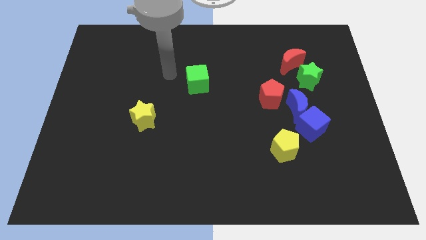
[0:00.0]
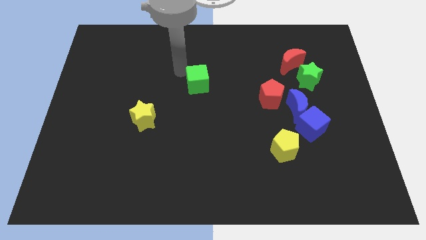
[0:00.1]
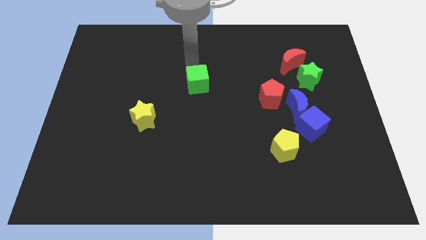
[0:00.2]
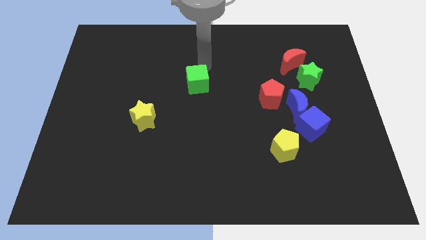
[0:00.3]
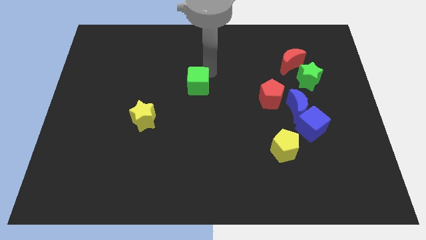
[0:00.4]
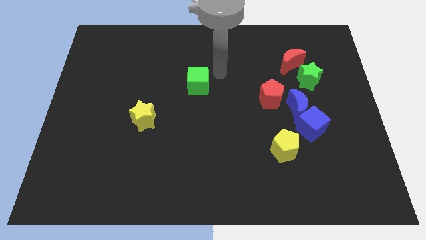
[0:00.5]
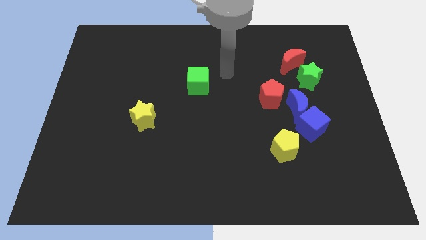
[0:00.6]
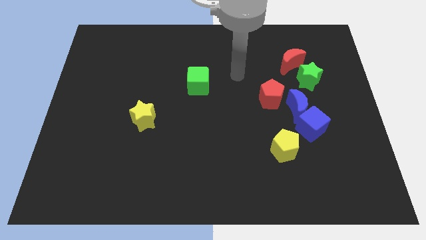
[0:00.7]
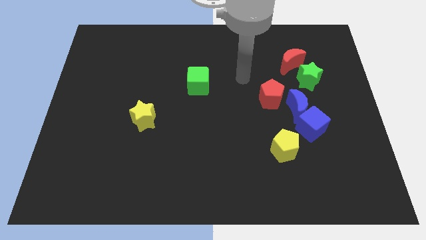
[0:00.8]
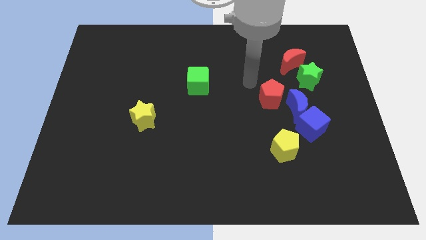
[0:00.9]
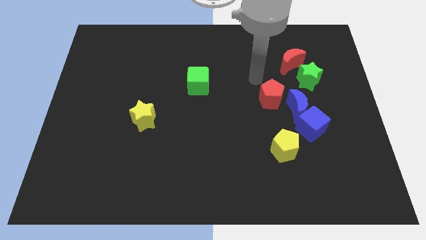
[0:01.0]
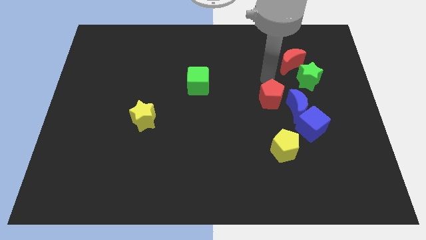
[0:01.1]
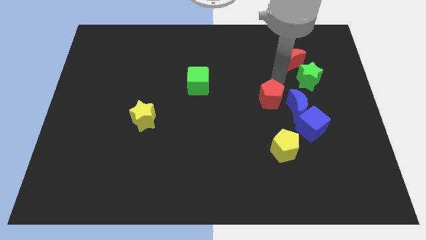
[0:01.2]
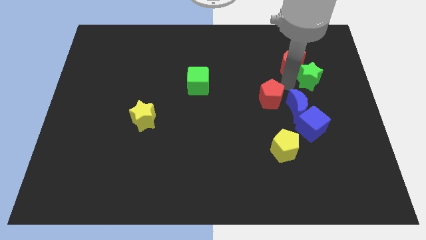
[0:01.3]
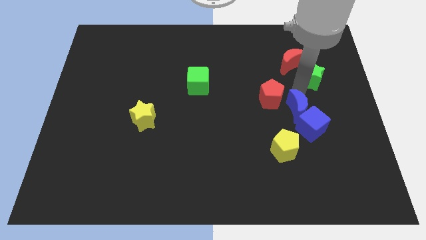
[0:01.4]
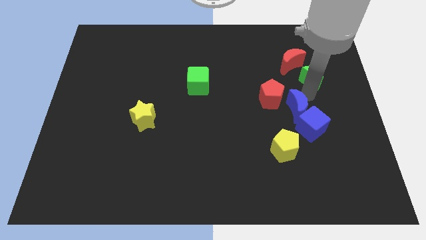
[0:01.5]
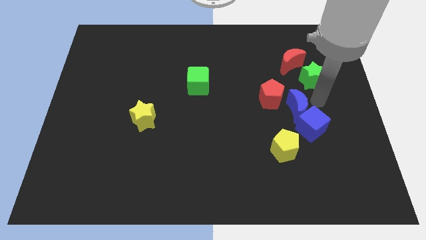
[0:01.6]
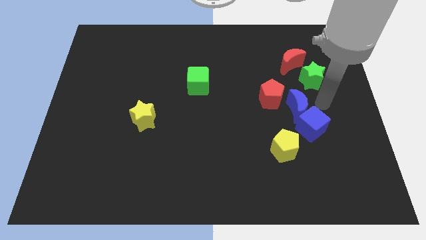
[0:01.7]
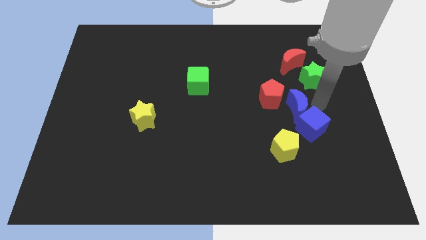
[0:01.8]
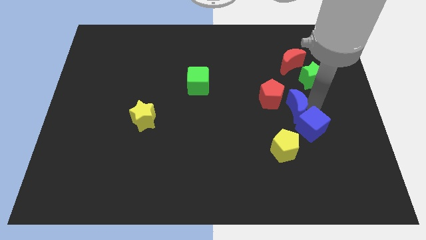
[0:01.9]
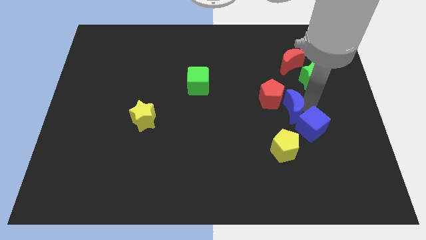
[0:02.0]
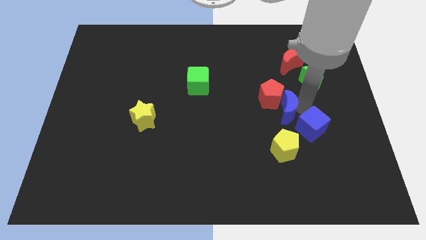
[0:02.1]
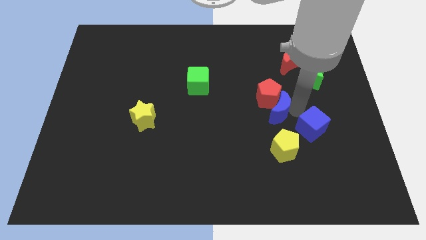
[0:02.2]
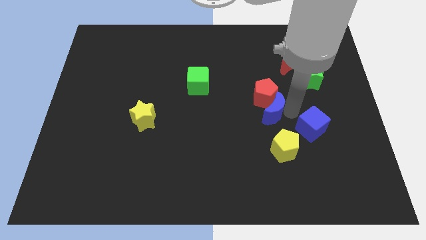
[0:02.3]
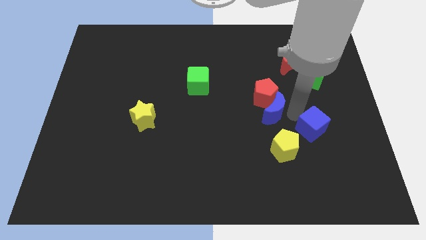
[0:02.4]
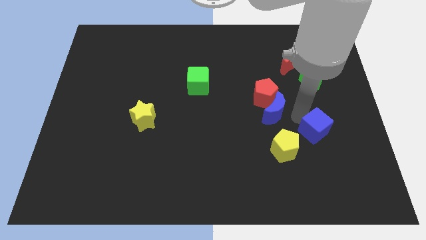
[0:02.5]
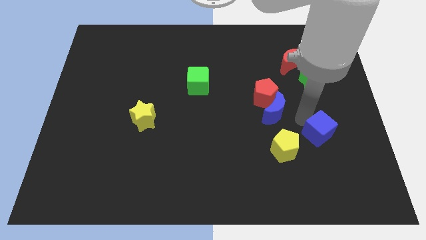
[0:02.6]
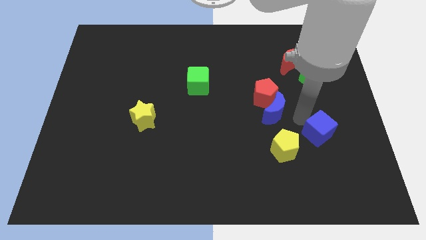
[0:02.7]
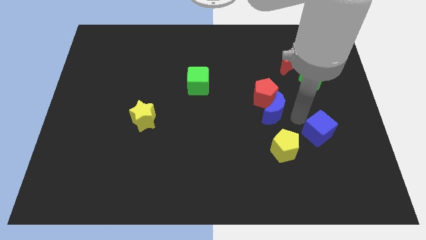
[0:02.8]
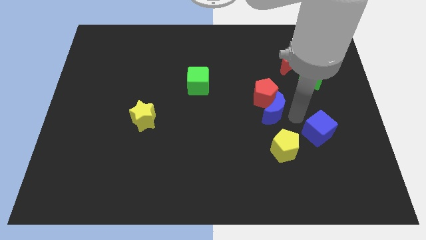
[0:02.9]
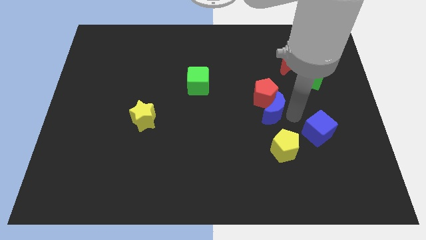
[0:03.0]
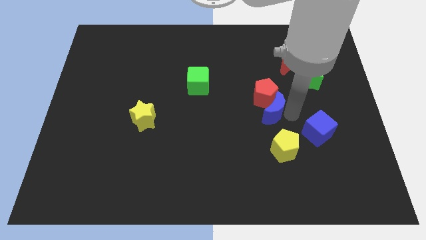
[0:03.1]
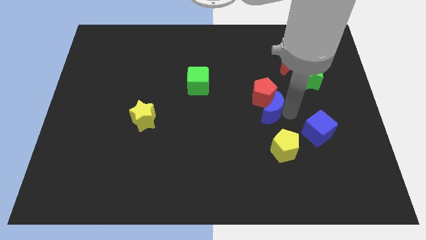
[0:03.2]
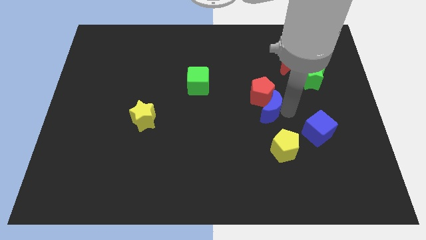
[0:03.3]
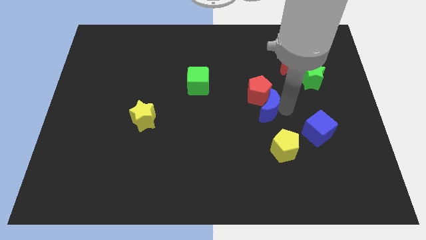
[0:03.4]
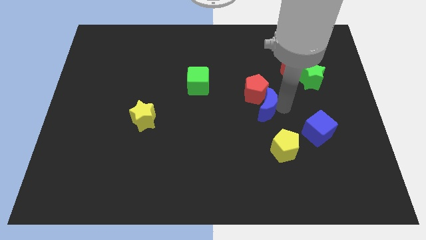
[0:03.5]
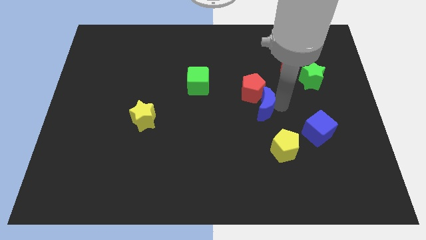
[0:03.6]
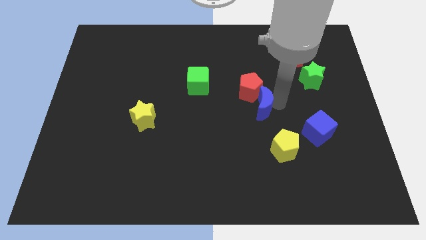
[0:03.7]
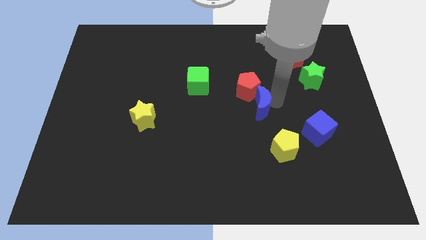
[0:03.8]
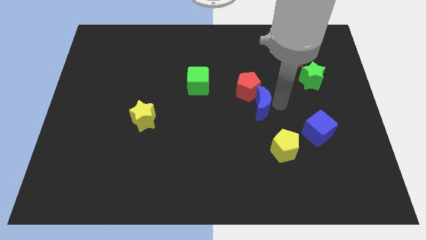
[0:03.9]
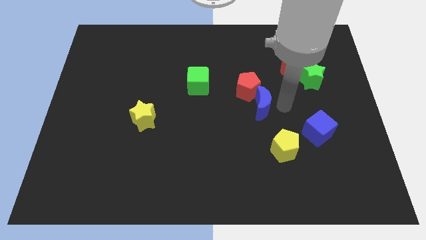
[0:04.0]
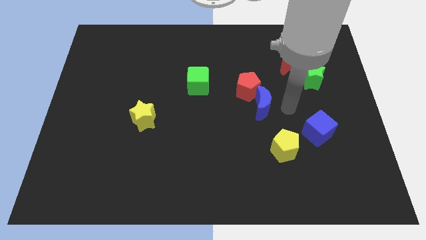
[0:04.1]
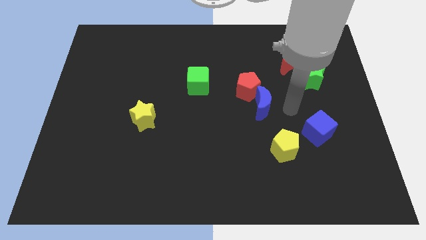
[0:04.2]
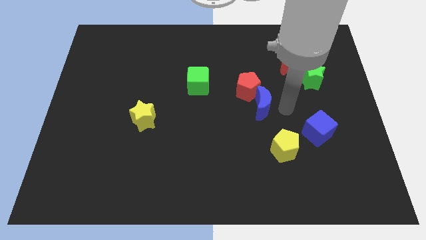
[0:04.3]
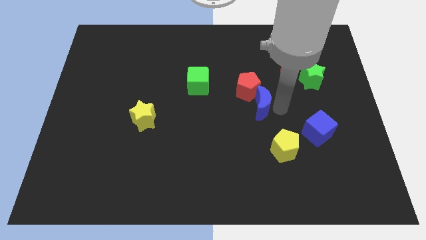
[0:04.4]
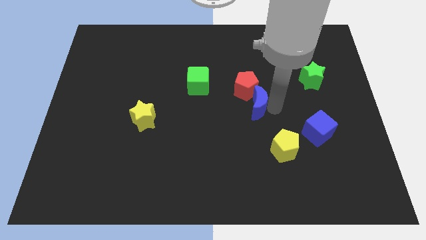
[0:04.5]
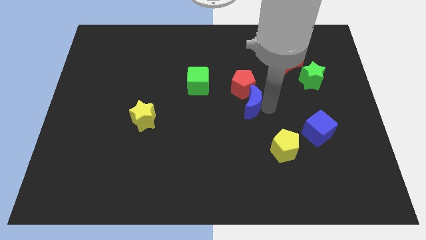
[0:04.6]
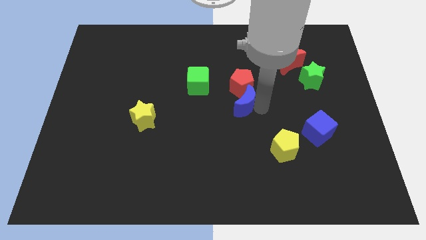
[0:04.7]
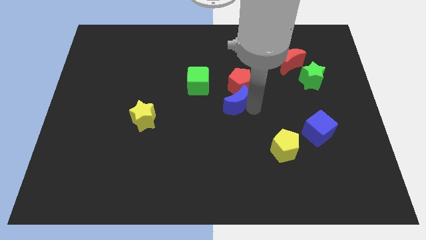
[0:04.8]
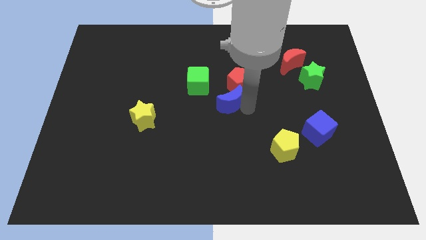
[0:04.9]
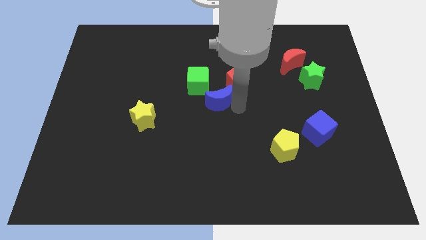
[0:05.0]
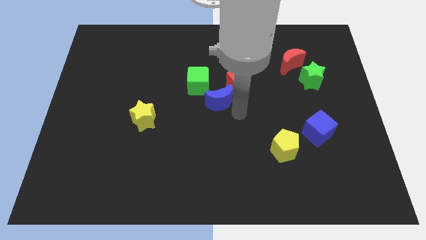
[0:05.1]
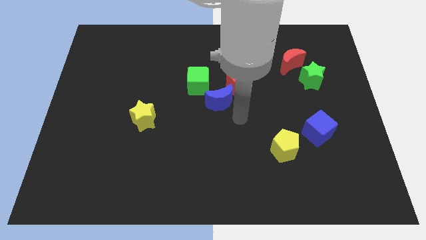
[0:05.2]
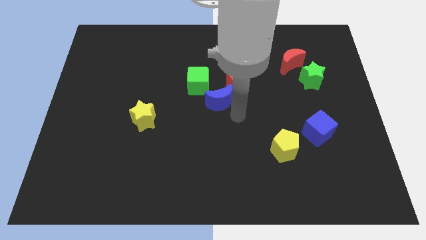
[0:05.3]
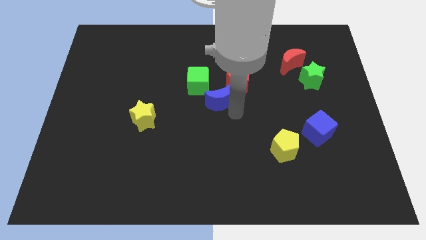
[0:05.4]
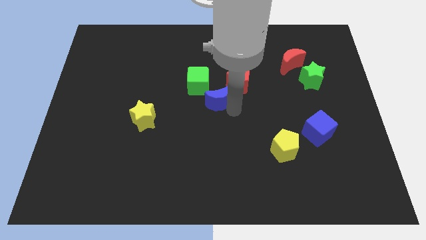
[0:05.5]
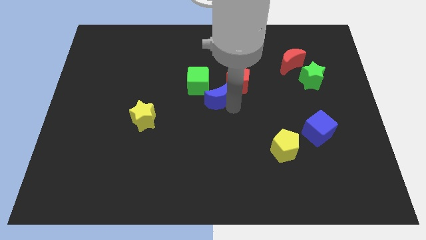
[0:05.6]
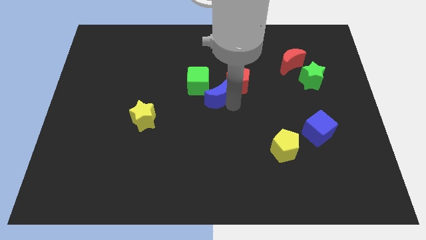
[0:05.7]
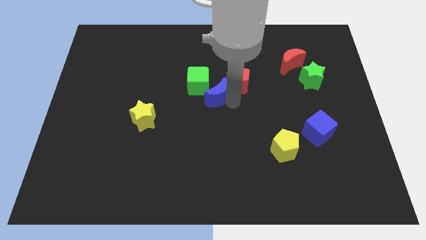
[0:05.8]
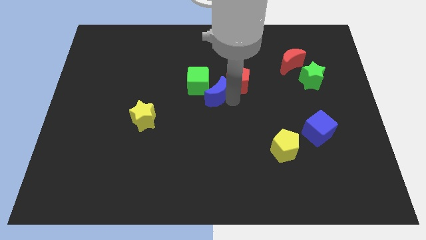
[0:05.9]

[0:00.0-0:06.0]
slide the blue moon to the green cube

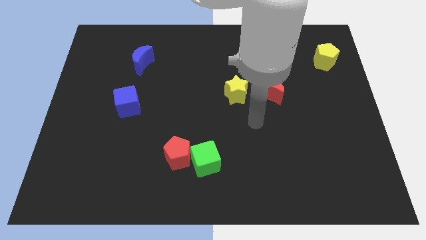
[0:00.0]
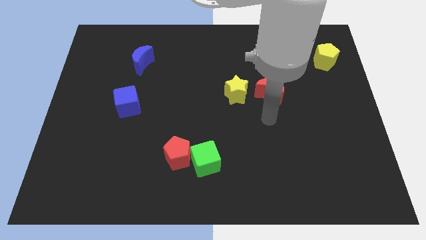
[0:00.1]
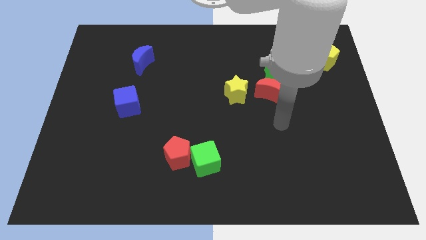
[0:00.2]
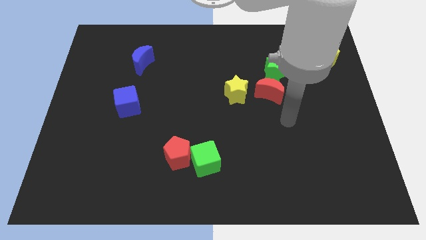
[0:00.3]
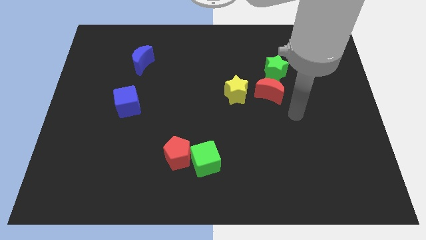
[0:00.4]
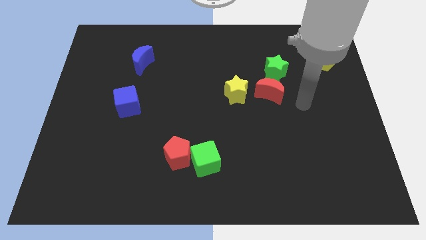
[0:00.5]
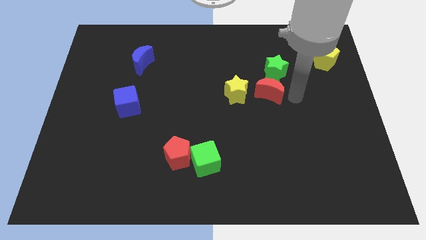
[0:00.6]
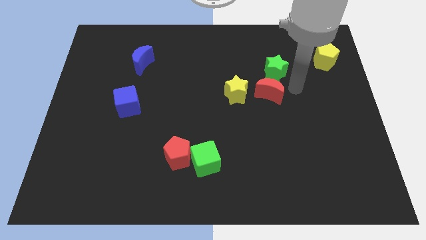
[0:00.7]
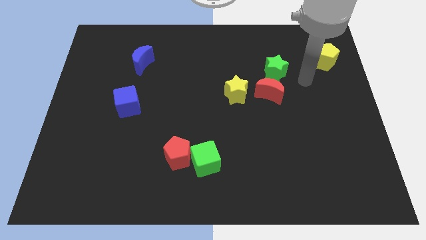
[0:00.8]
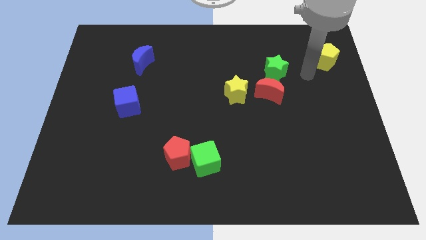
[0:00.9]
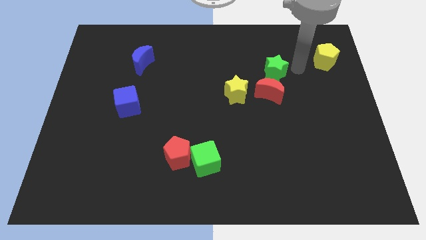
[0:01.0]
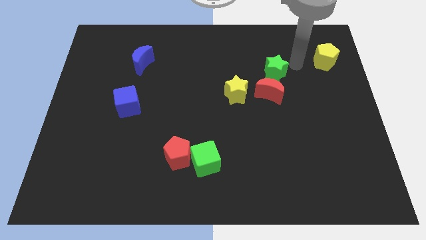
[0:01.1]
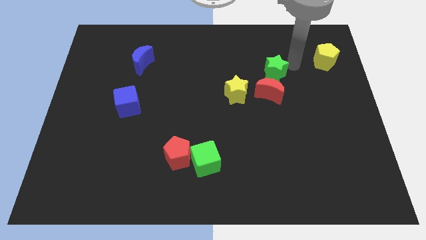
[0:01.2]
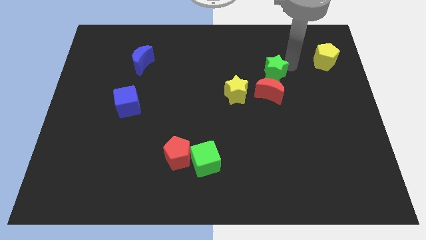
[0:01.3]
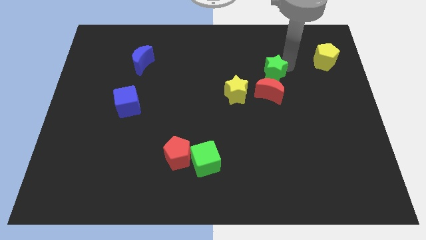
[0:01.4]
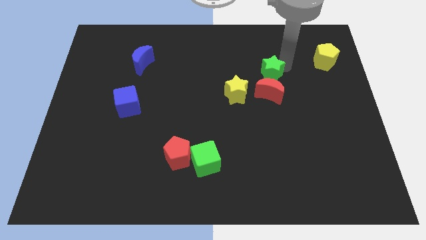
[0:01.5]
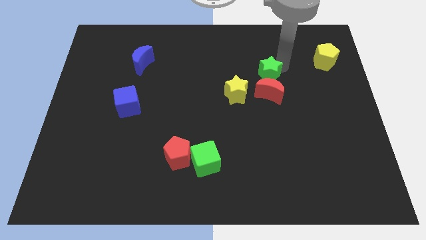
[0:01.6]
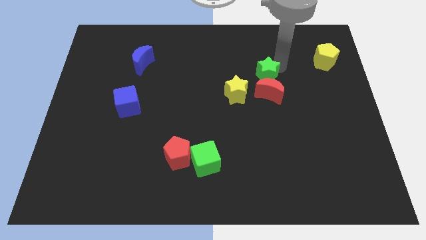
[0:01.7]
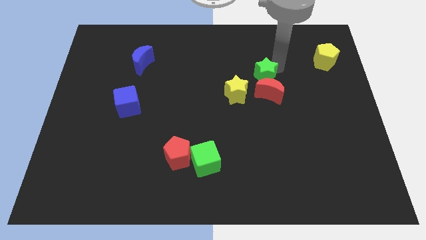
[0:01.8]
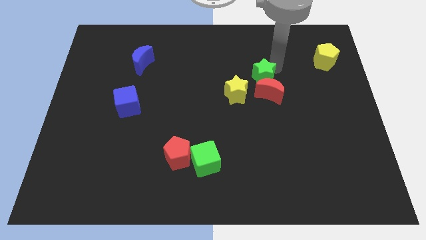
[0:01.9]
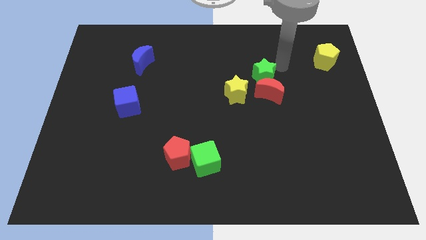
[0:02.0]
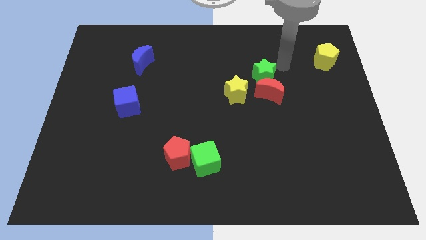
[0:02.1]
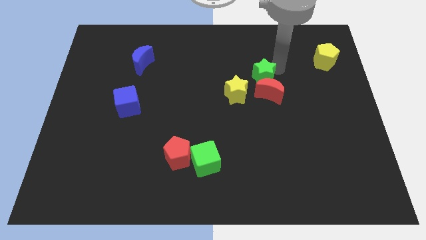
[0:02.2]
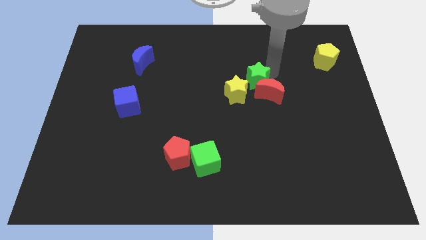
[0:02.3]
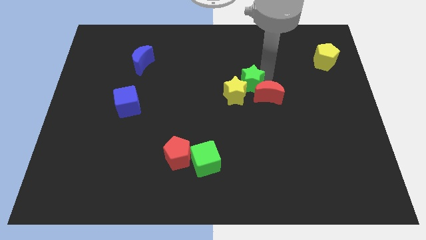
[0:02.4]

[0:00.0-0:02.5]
slide the green star towards the yellow star
